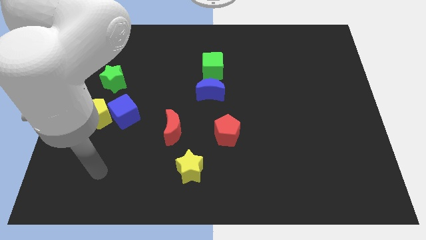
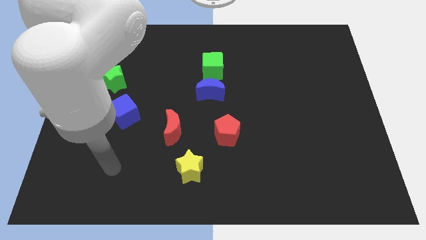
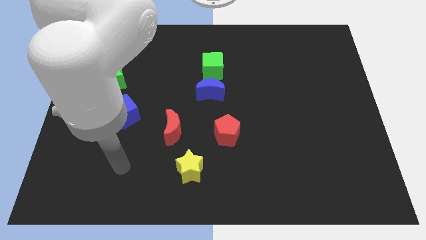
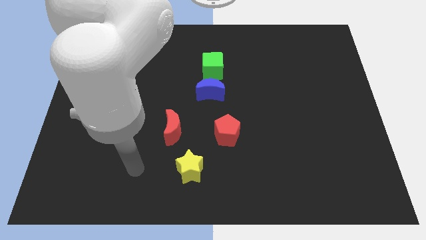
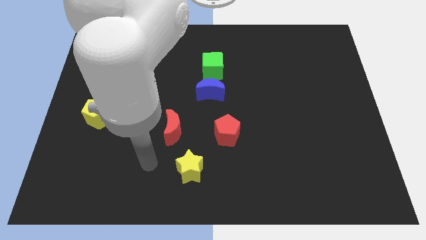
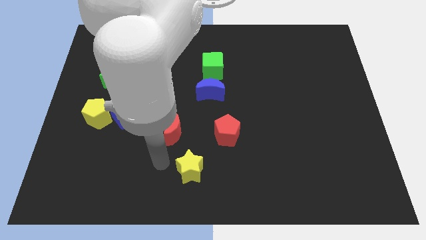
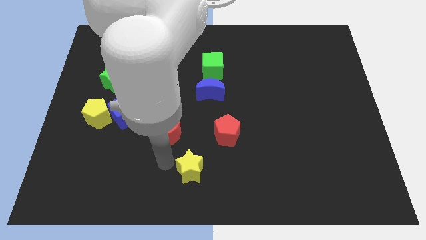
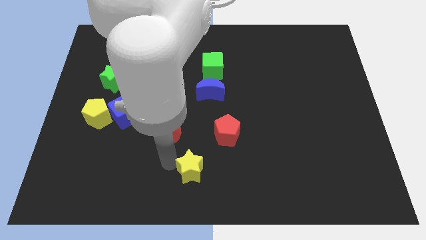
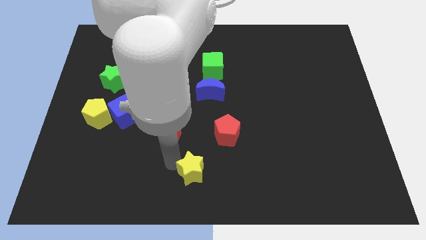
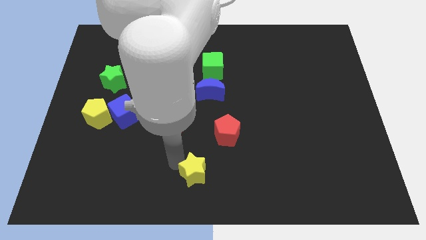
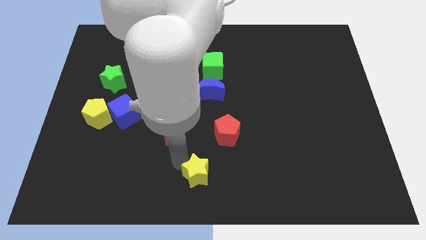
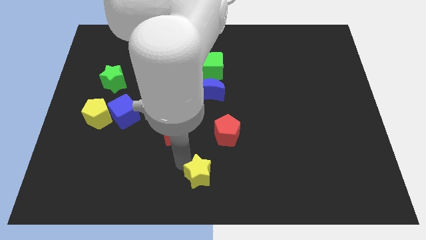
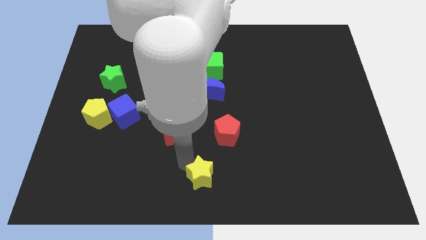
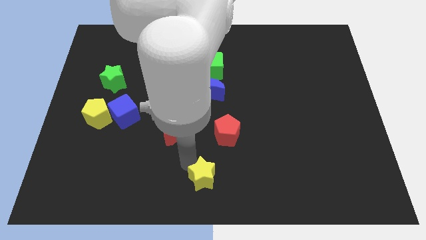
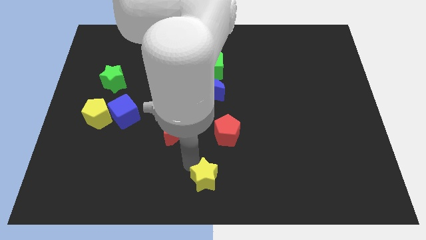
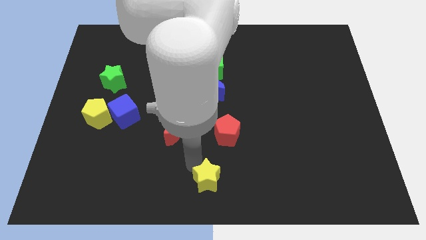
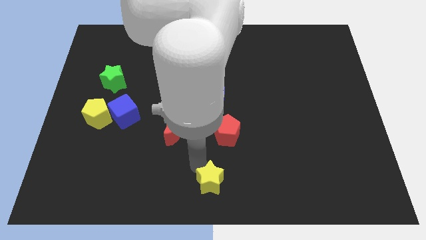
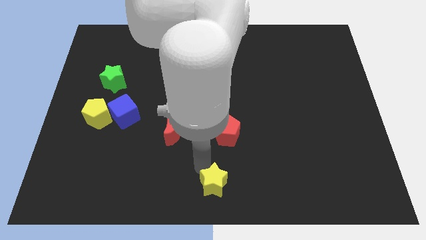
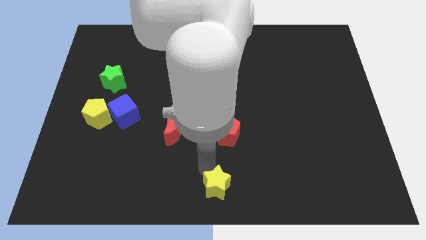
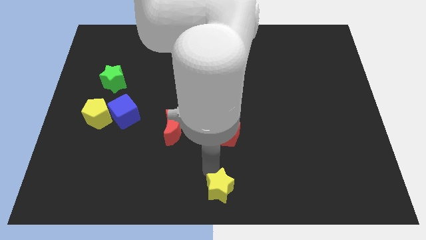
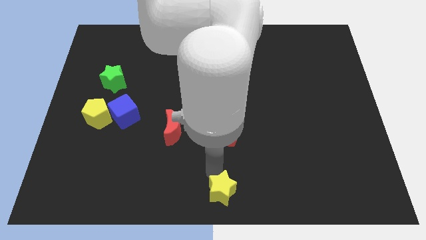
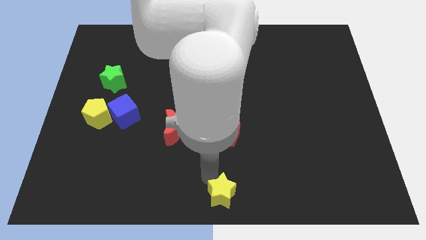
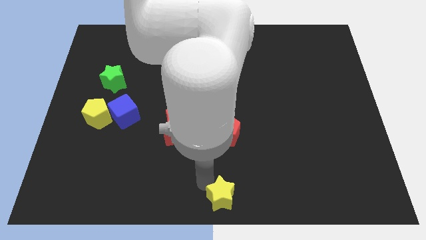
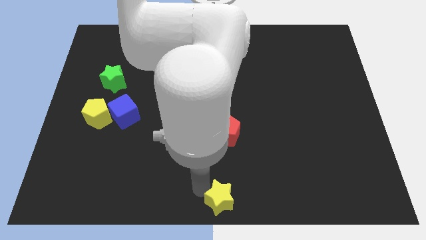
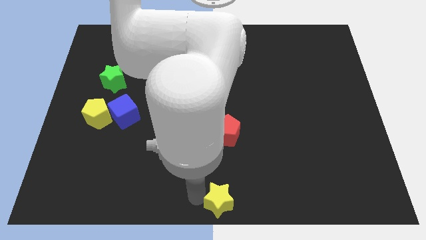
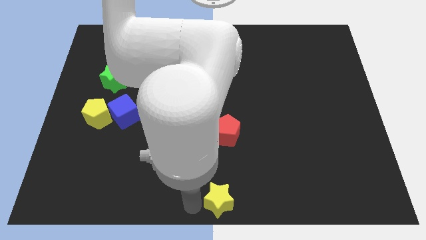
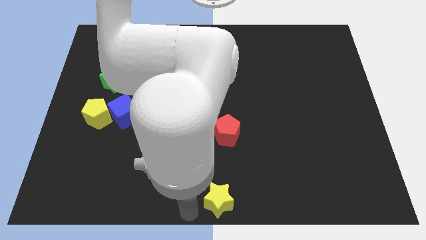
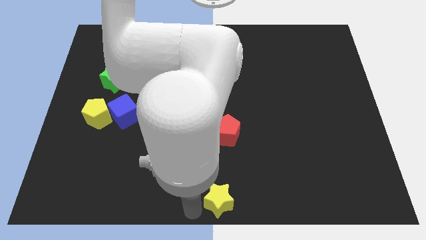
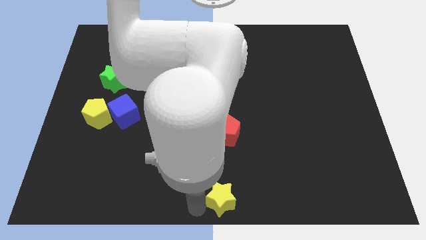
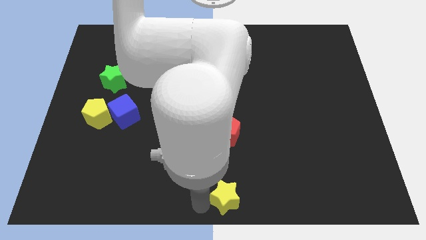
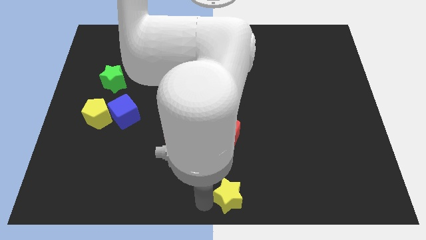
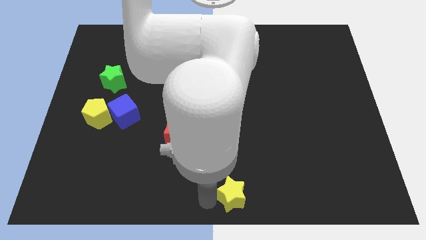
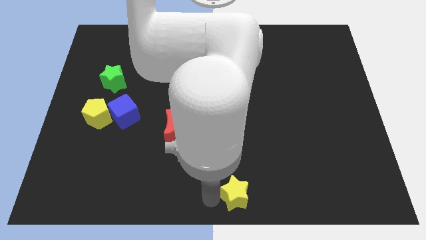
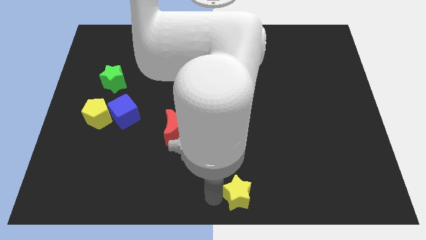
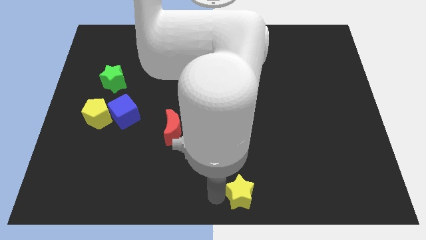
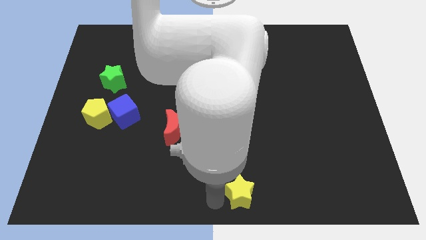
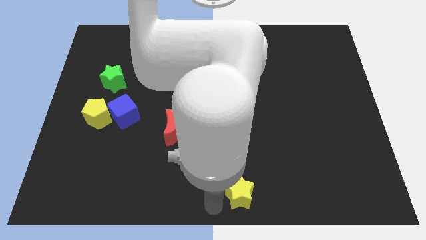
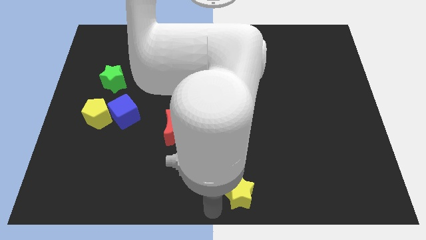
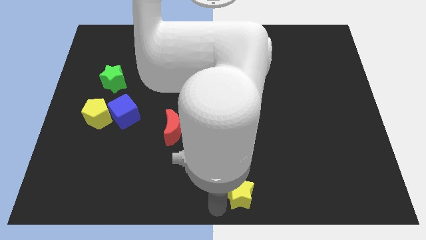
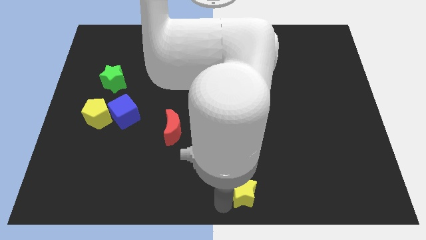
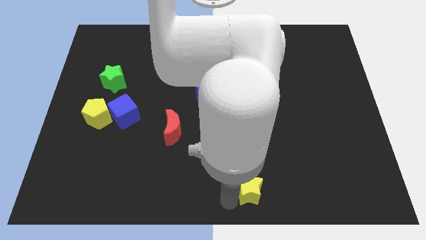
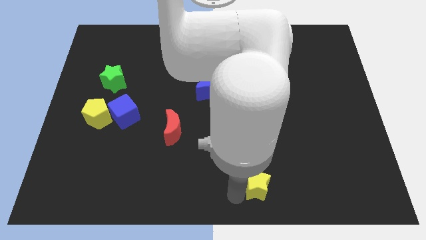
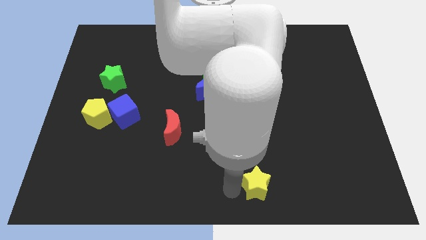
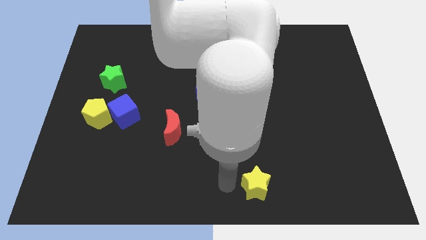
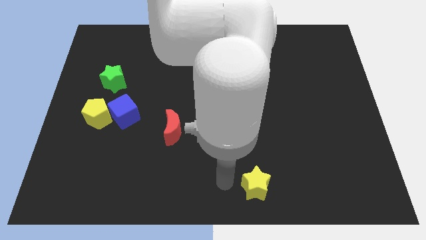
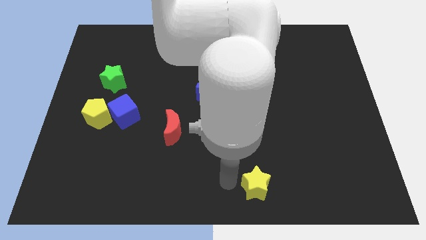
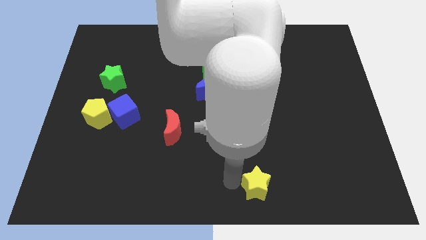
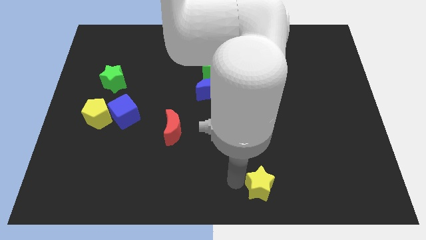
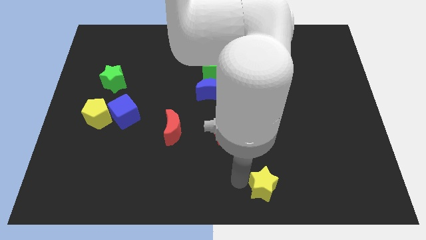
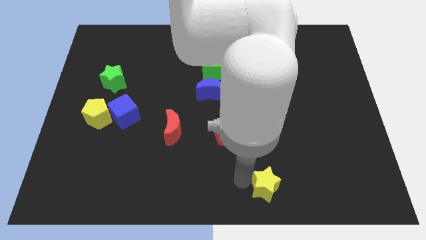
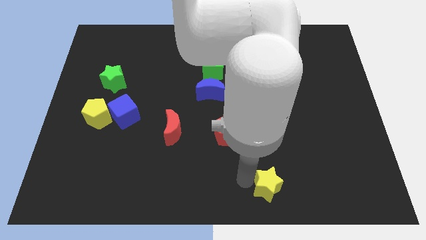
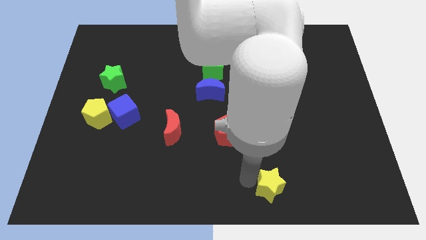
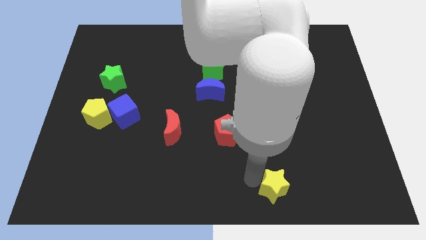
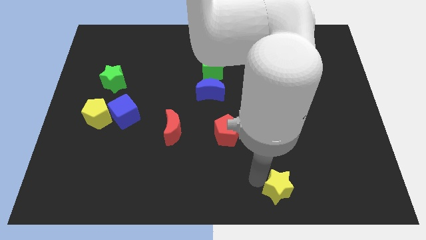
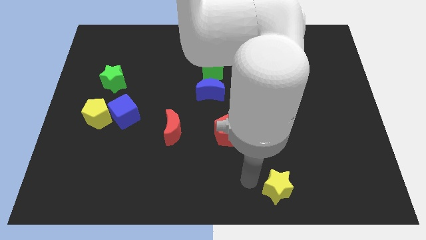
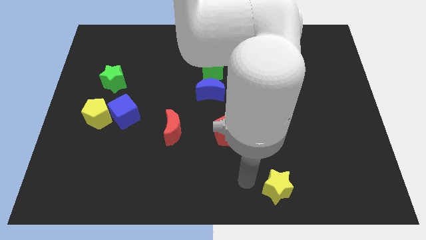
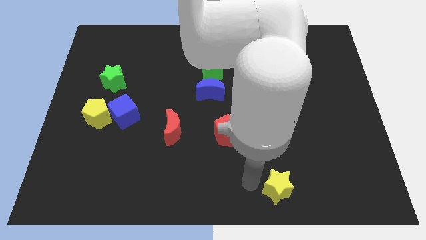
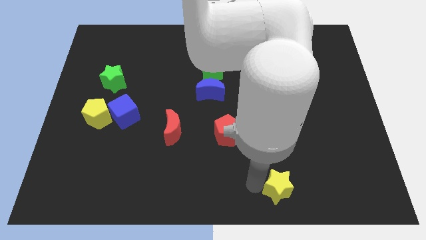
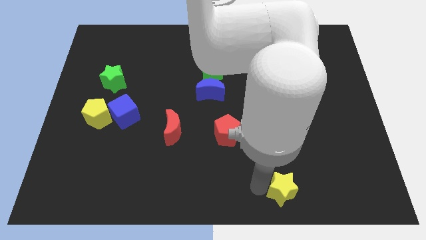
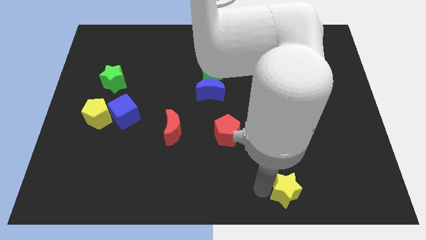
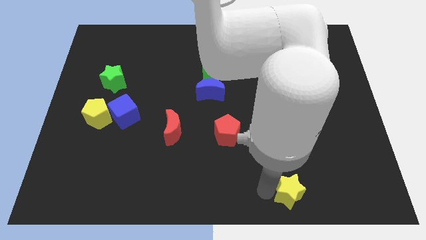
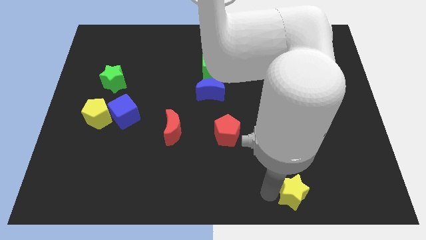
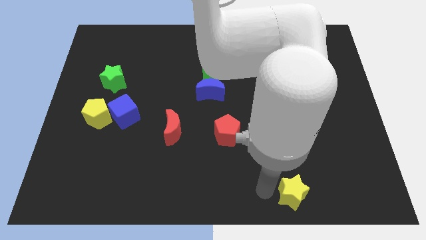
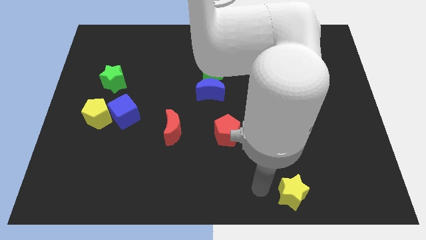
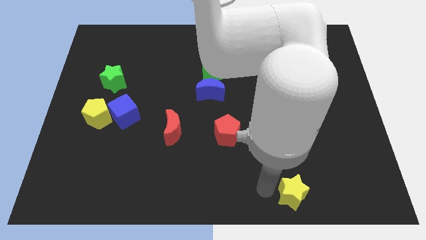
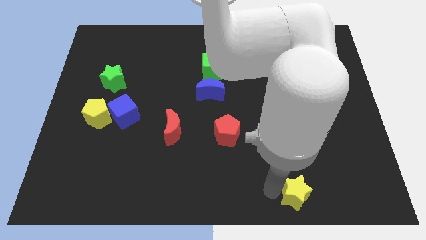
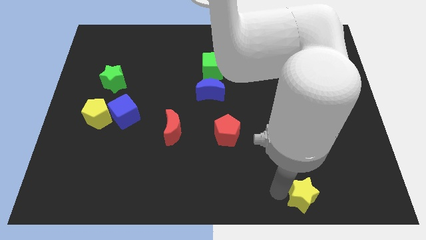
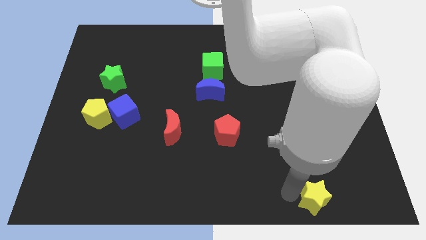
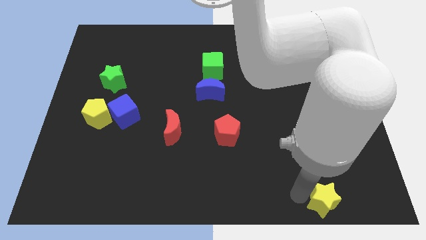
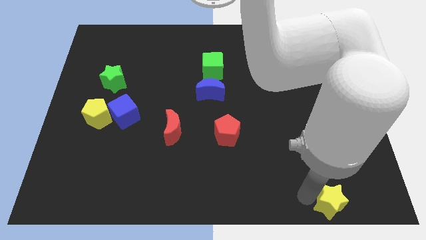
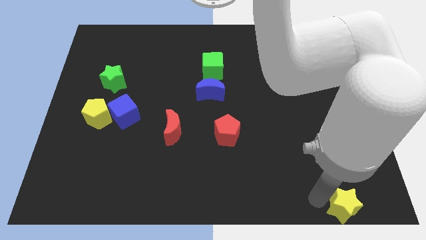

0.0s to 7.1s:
put the yellow star to the lower right corner
